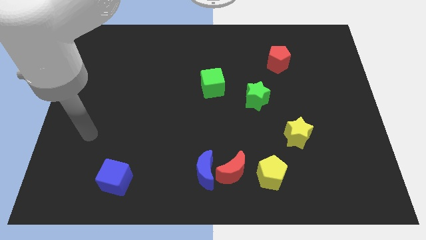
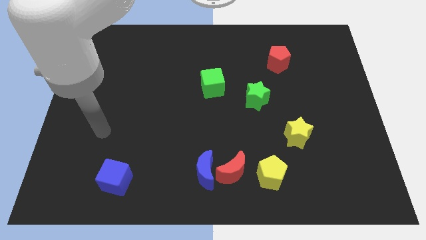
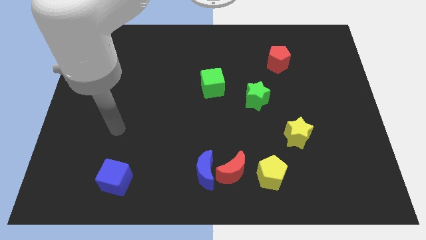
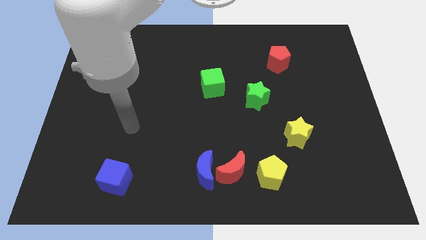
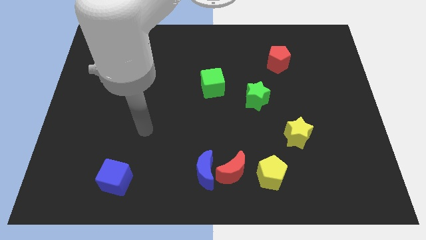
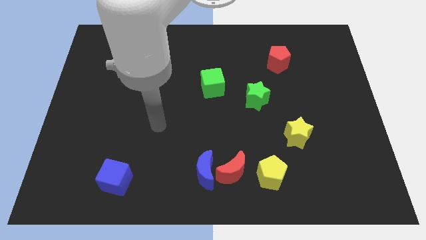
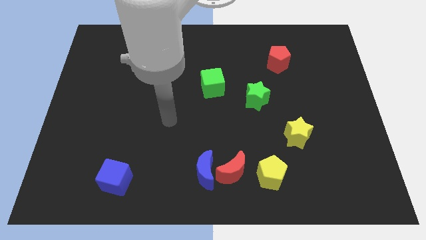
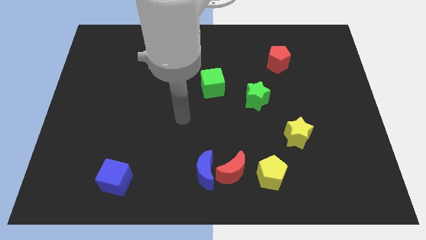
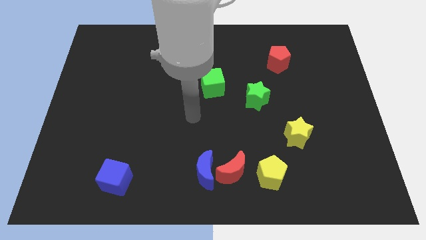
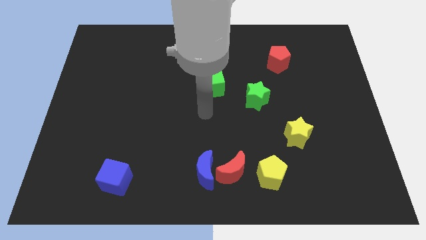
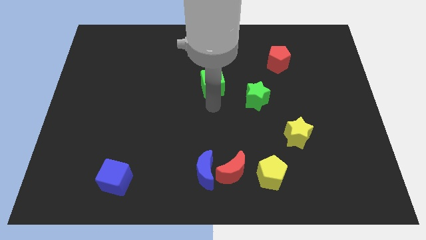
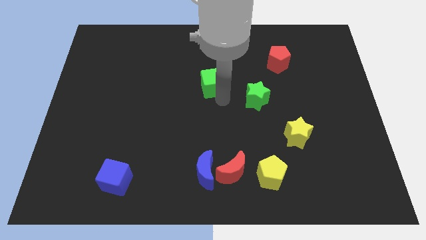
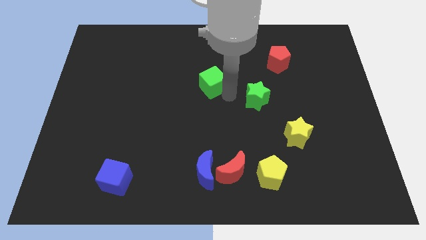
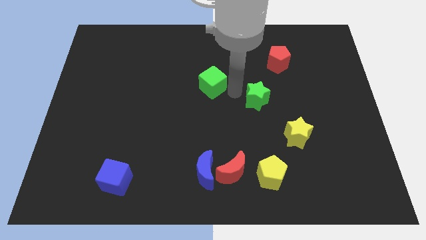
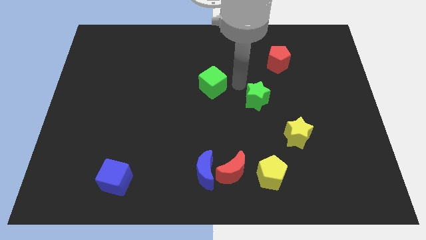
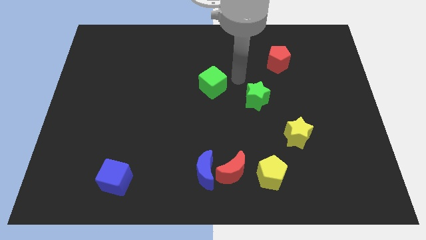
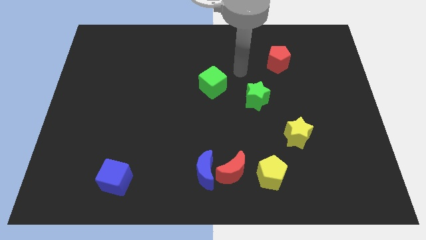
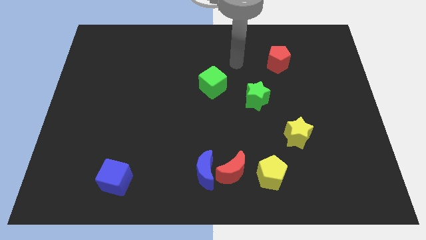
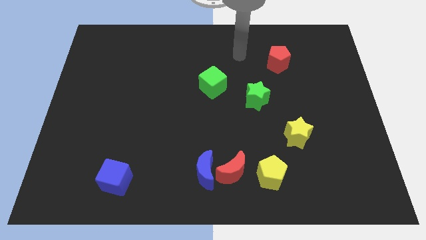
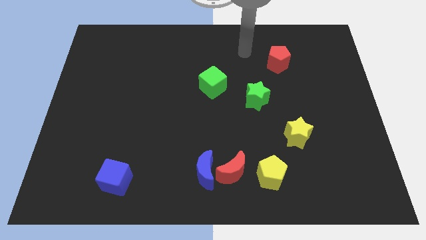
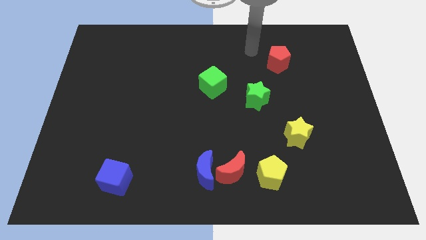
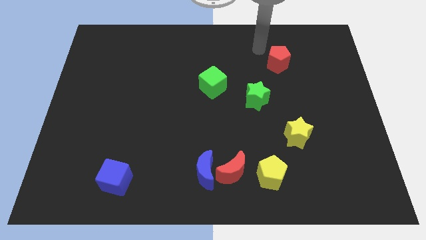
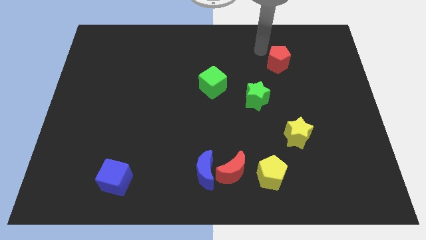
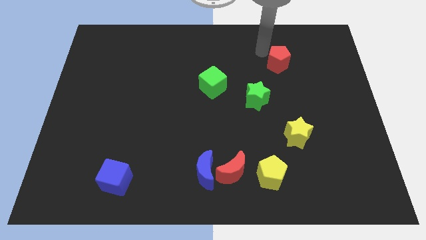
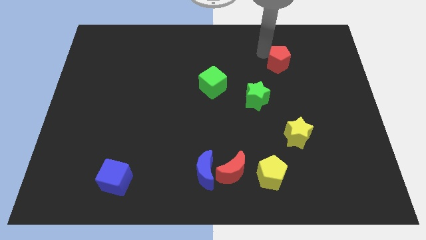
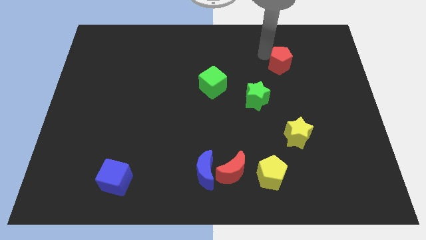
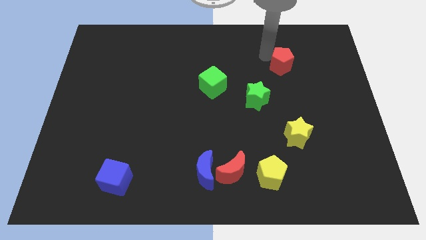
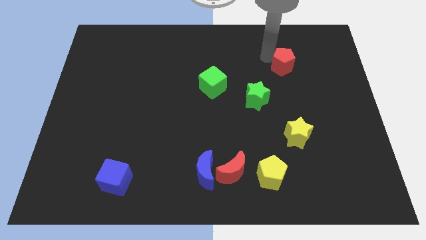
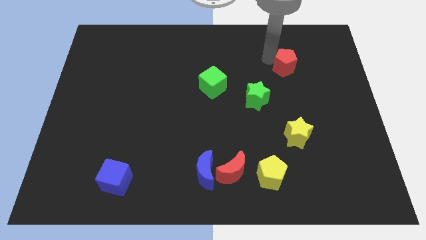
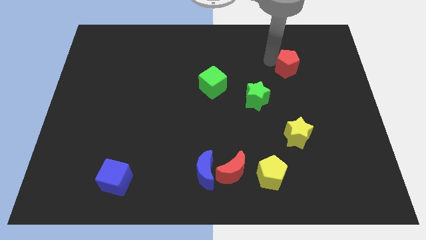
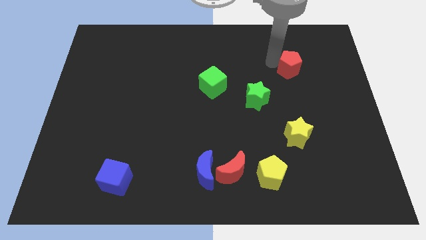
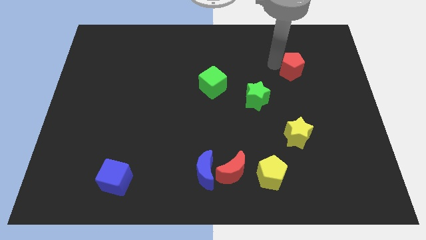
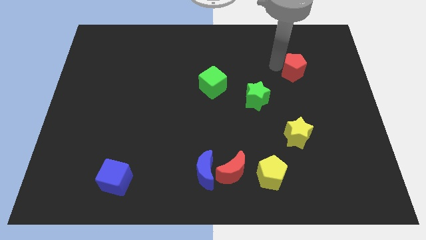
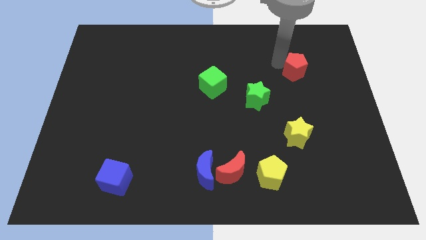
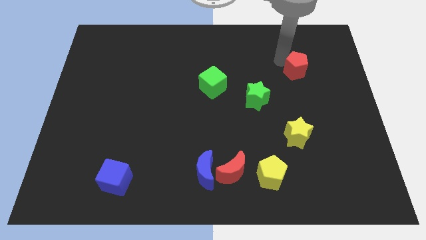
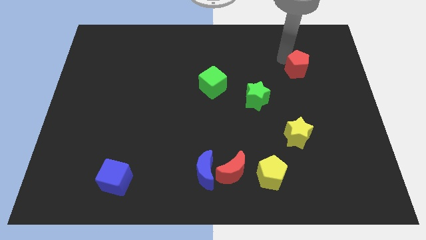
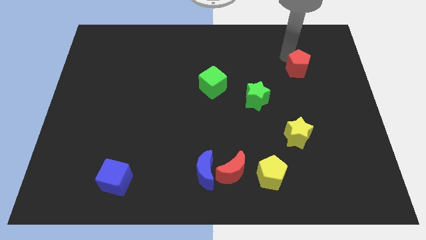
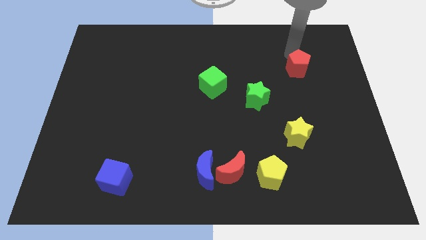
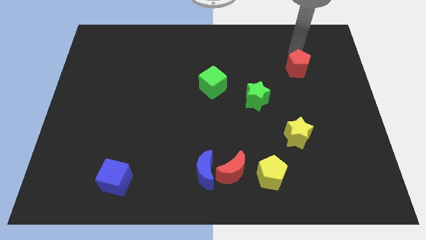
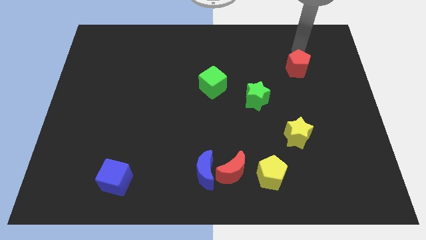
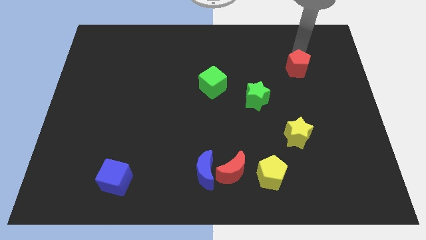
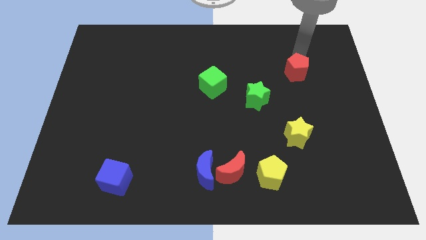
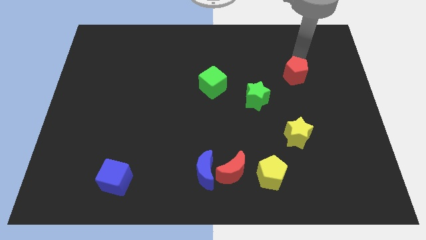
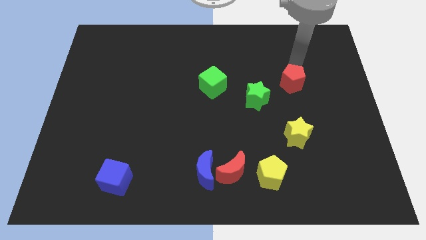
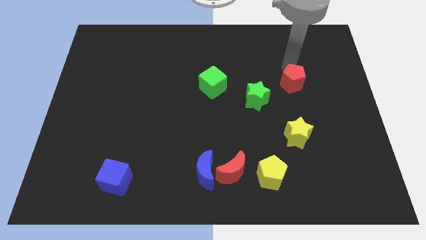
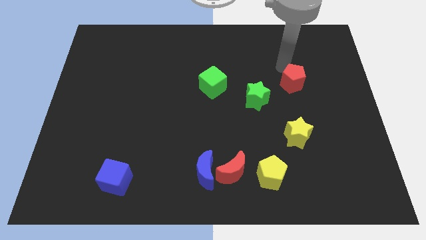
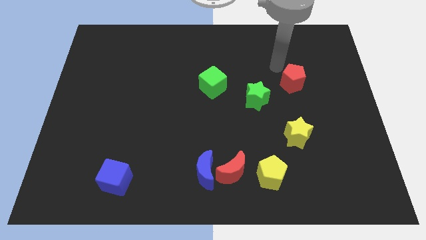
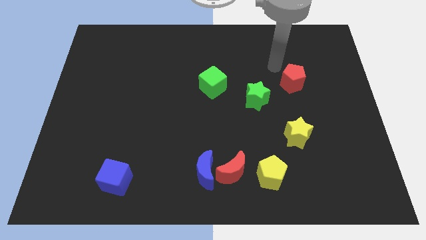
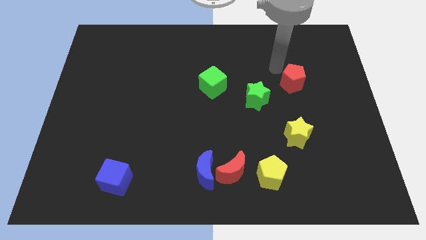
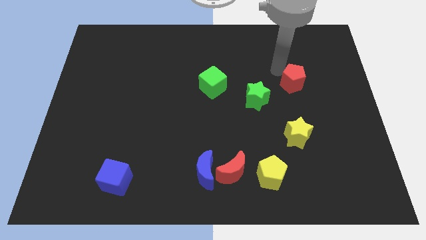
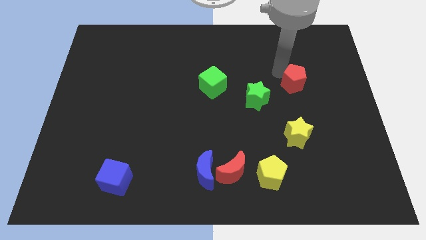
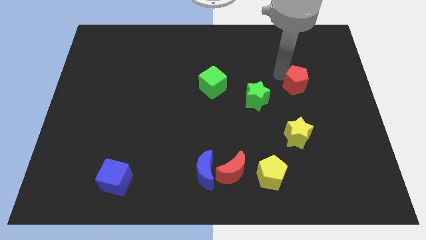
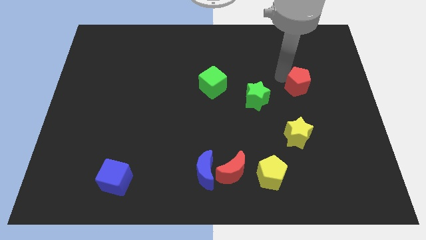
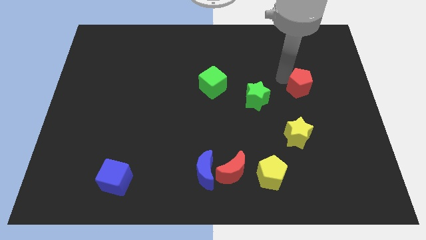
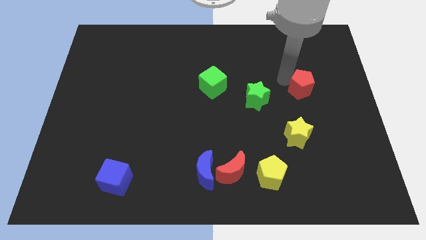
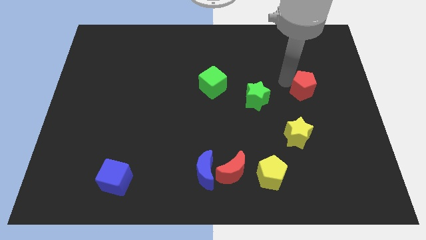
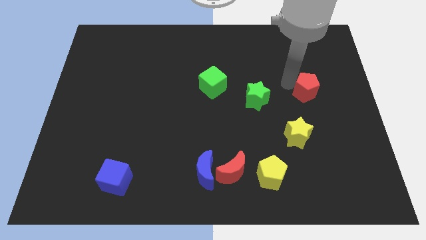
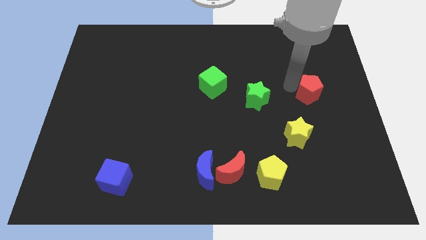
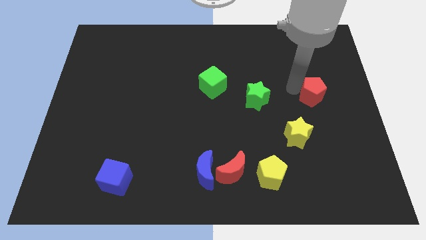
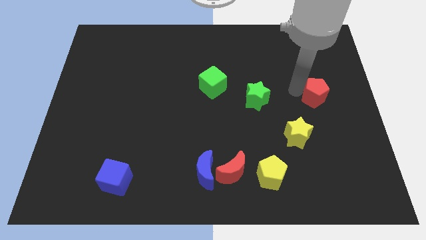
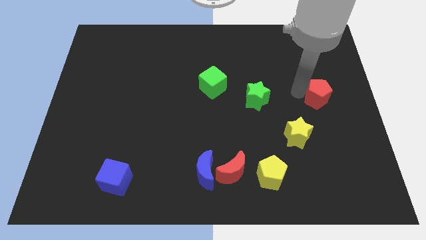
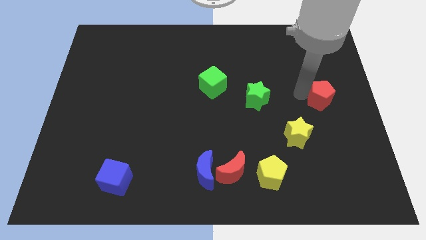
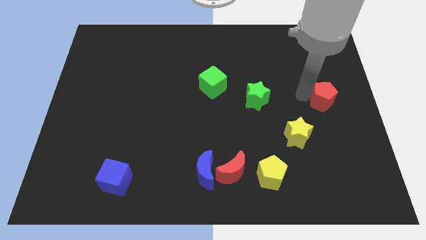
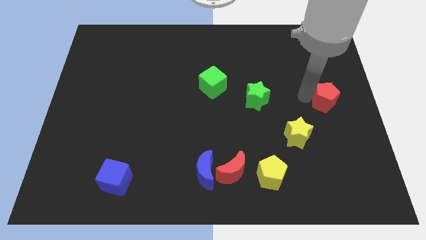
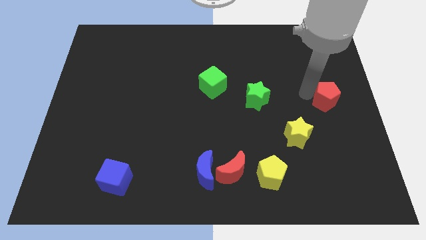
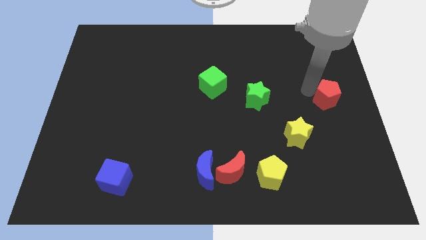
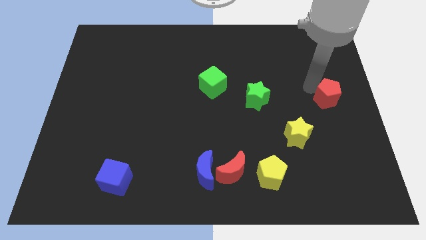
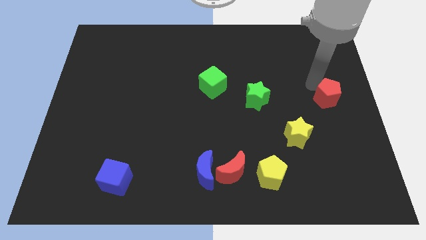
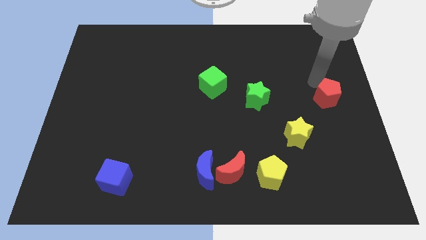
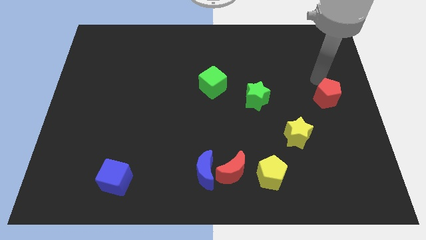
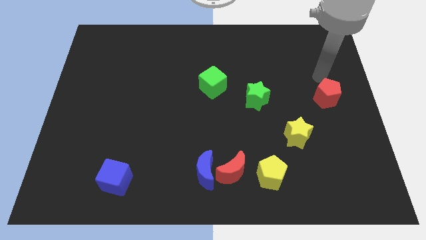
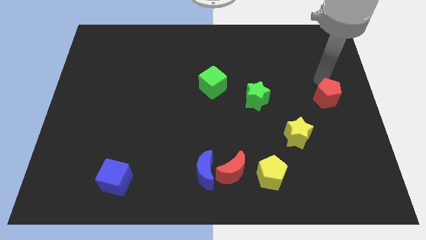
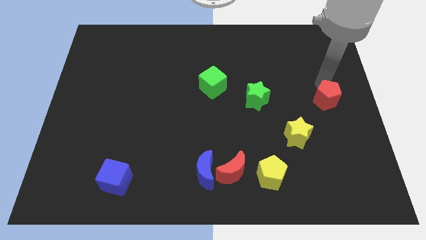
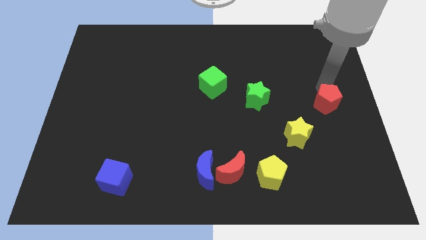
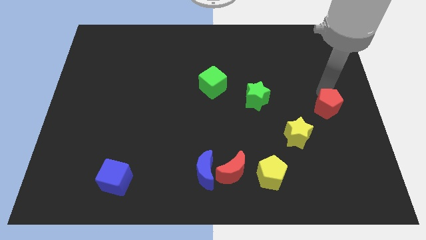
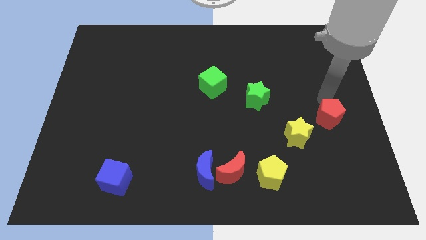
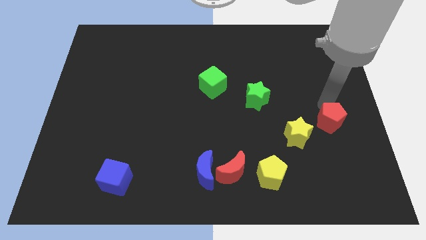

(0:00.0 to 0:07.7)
move the red pentagon to the right side of the yellow star
